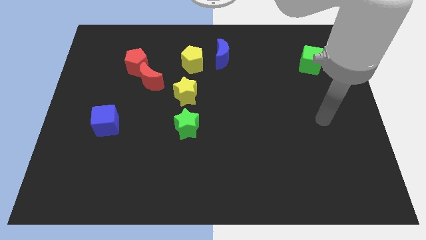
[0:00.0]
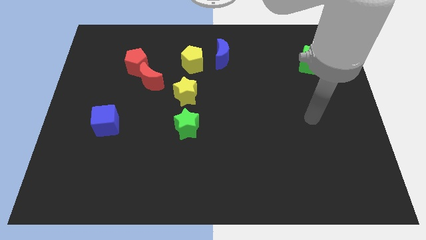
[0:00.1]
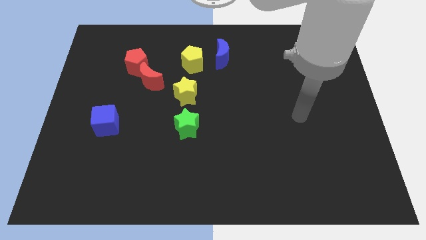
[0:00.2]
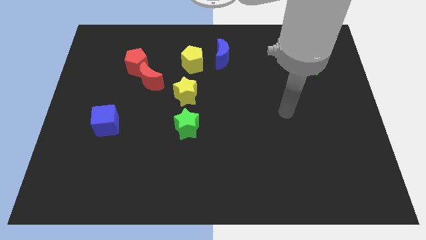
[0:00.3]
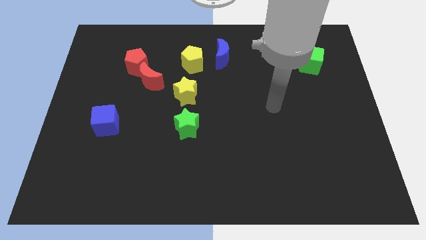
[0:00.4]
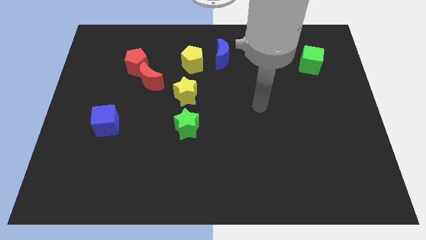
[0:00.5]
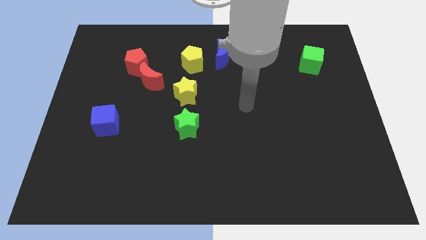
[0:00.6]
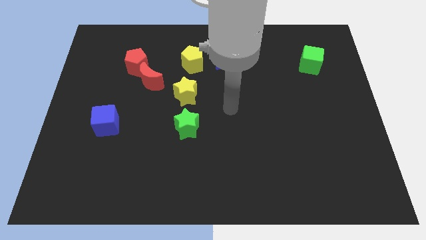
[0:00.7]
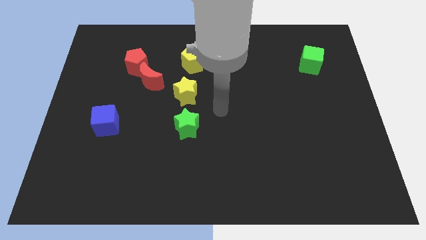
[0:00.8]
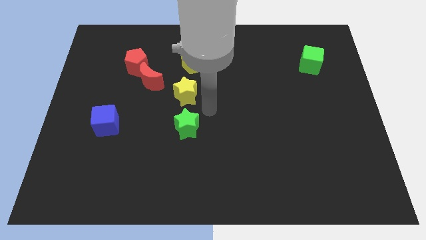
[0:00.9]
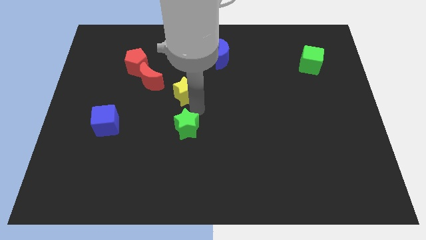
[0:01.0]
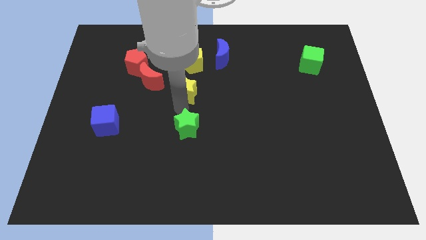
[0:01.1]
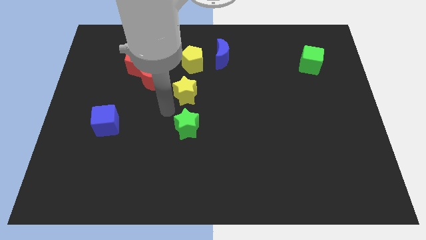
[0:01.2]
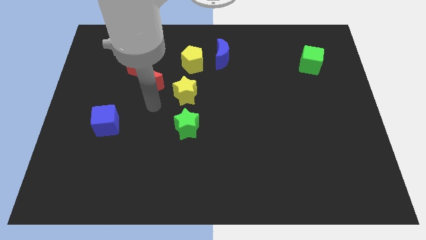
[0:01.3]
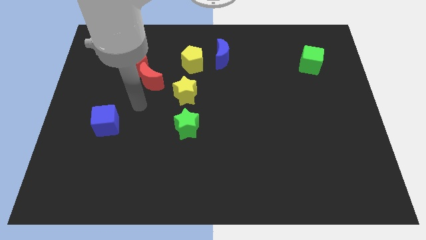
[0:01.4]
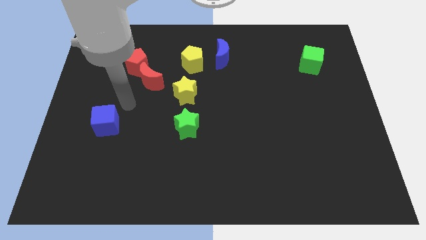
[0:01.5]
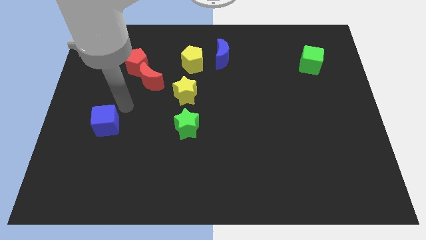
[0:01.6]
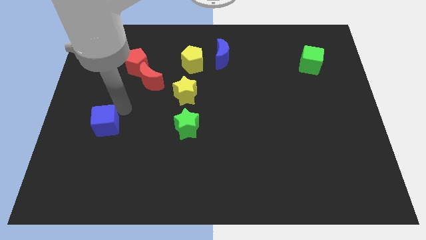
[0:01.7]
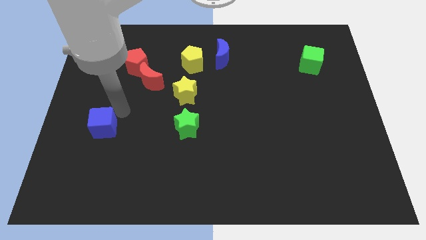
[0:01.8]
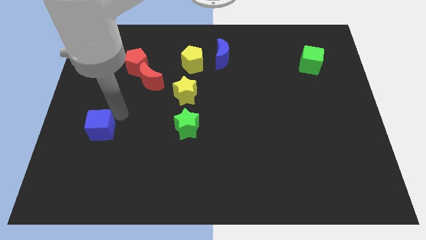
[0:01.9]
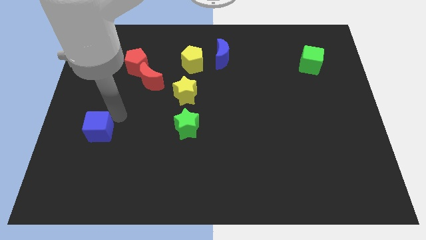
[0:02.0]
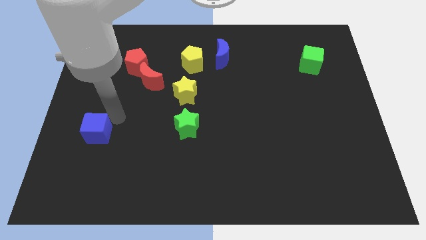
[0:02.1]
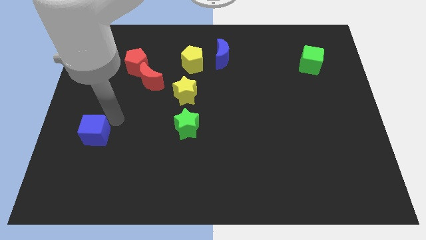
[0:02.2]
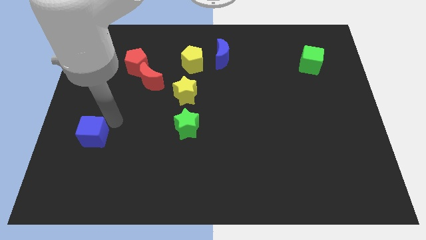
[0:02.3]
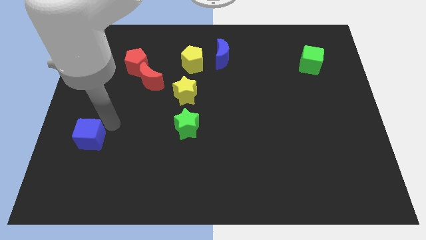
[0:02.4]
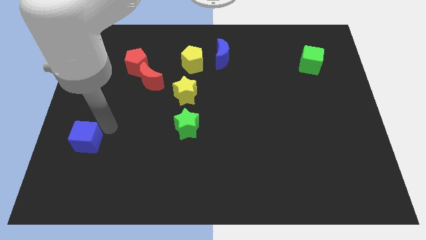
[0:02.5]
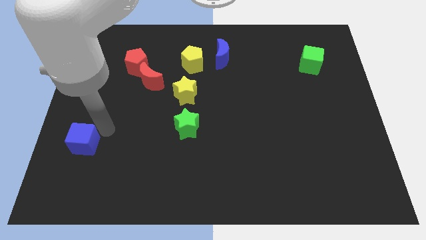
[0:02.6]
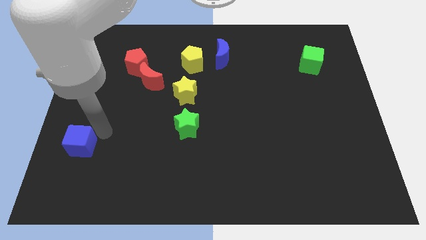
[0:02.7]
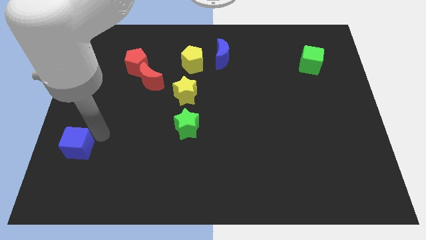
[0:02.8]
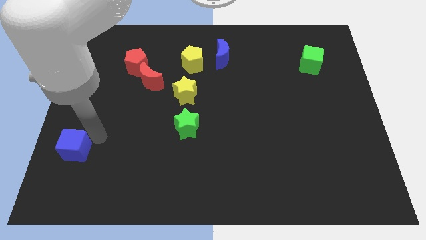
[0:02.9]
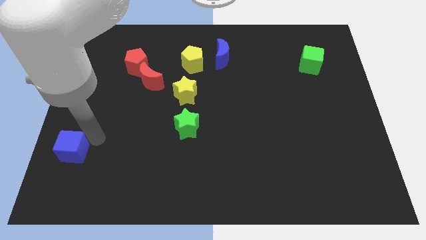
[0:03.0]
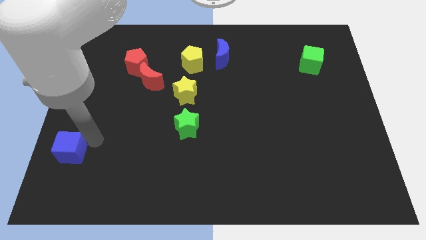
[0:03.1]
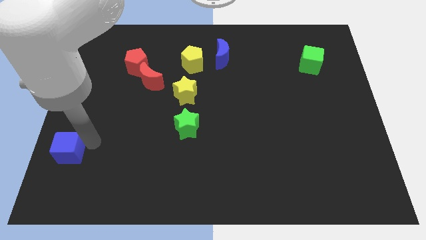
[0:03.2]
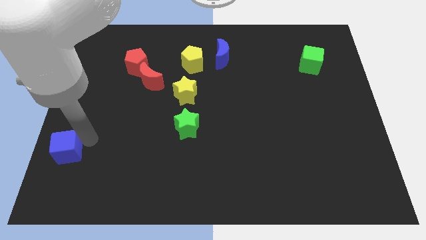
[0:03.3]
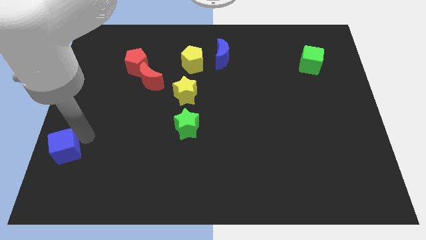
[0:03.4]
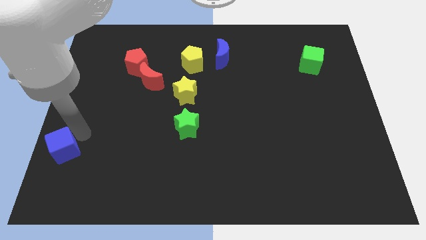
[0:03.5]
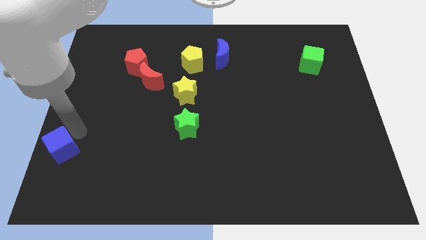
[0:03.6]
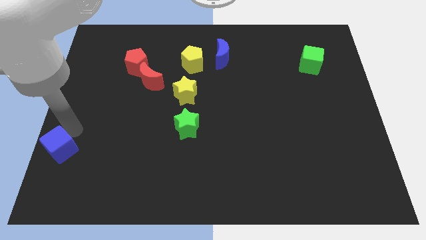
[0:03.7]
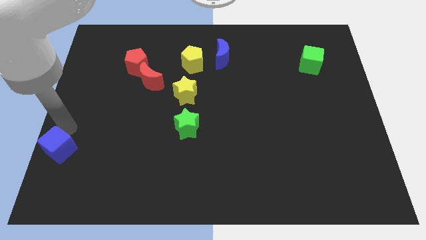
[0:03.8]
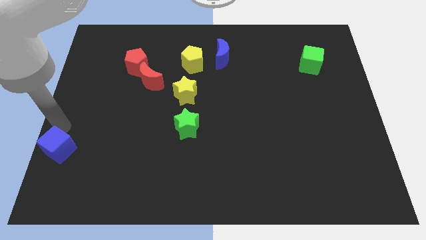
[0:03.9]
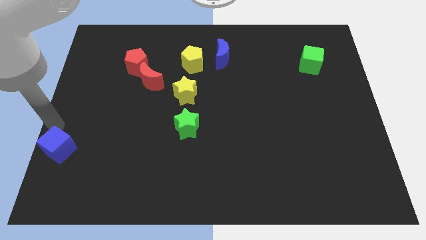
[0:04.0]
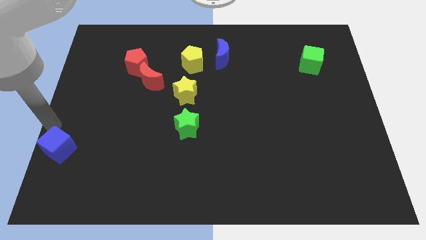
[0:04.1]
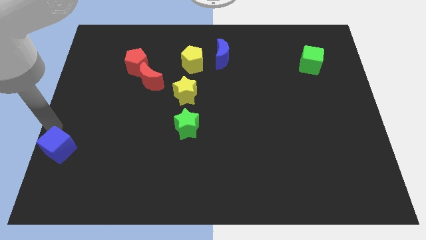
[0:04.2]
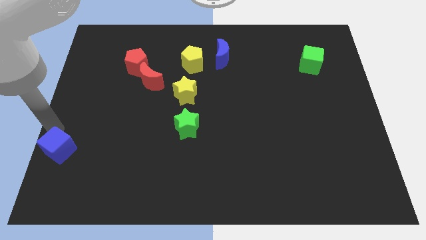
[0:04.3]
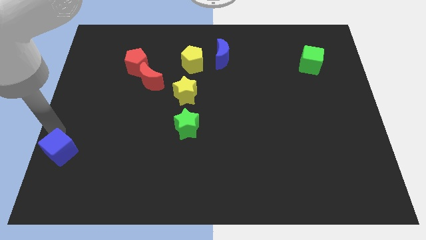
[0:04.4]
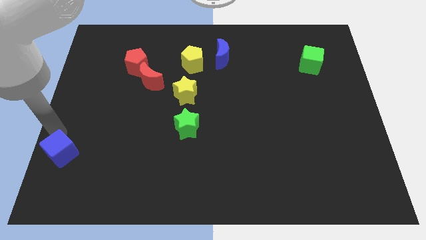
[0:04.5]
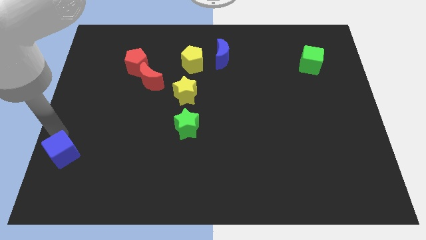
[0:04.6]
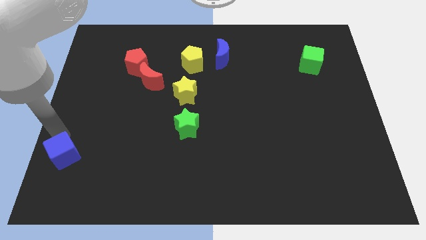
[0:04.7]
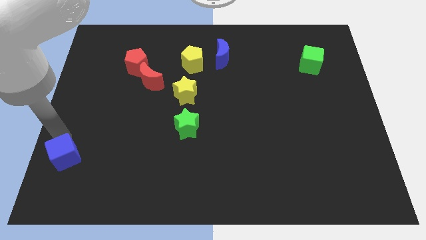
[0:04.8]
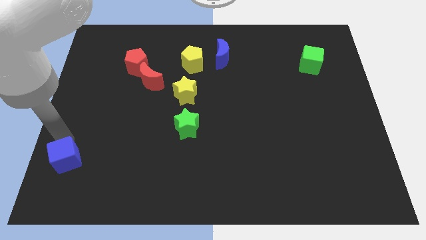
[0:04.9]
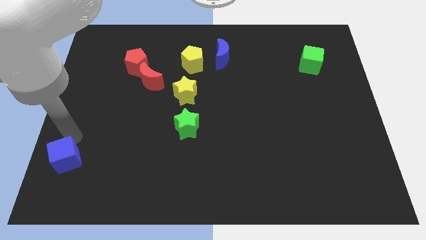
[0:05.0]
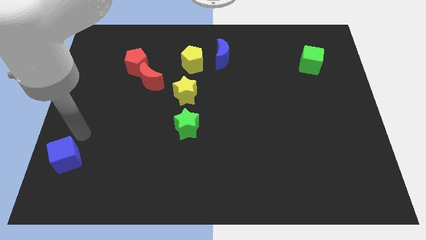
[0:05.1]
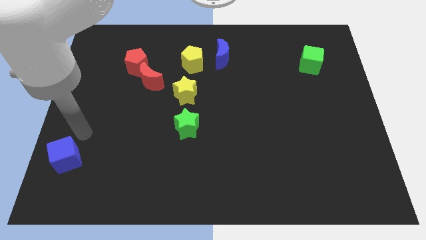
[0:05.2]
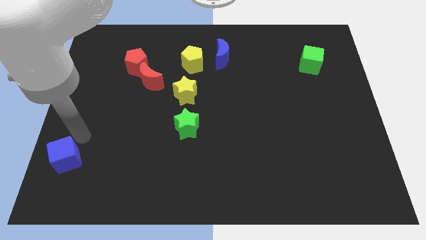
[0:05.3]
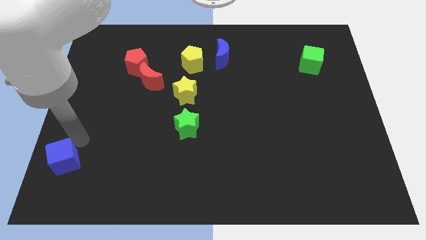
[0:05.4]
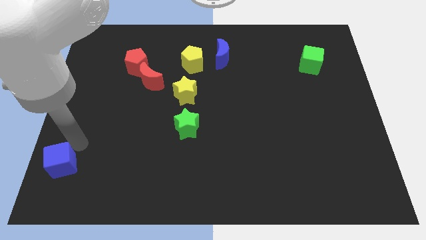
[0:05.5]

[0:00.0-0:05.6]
move the blue cube to the bottom left corner

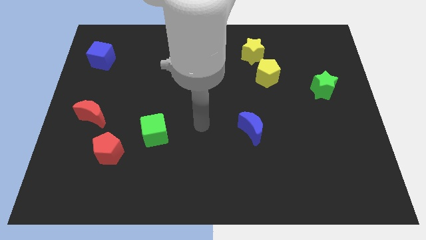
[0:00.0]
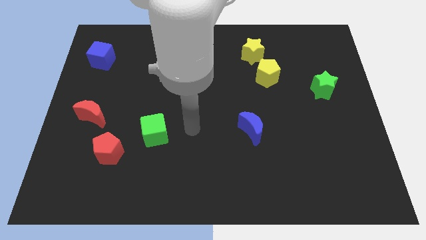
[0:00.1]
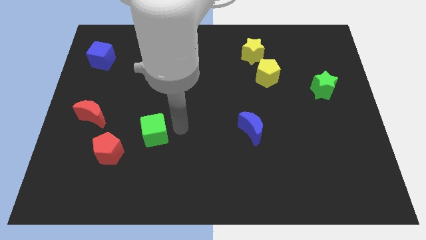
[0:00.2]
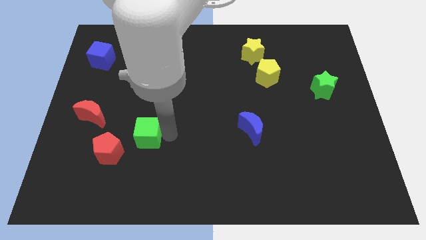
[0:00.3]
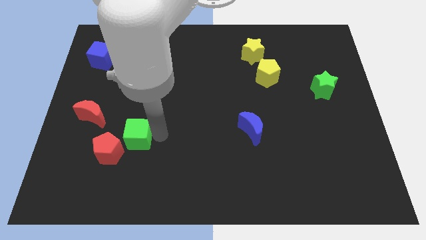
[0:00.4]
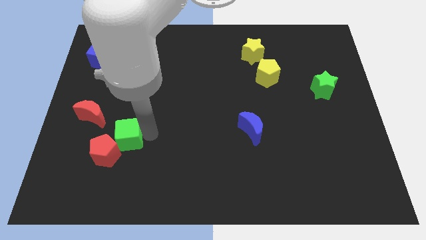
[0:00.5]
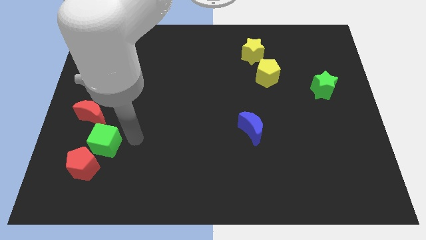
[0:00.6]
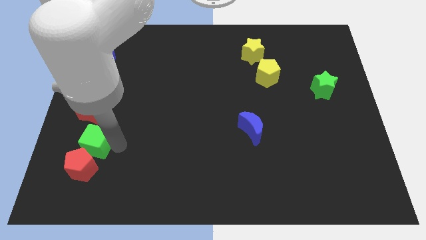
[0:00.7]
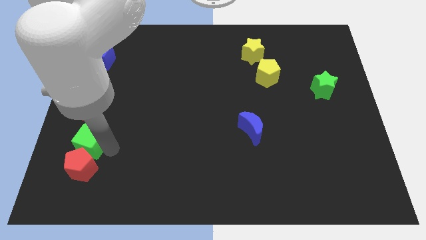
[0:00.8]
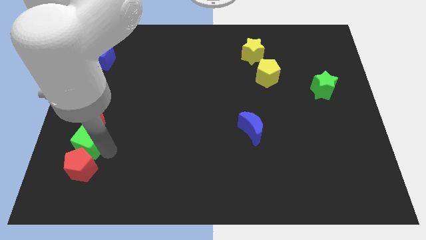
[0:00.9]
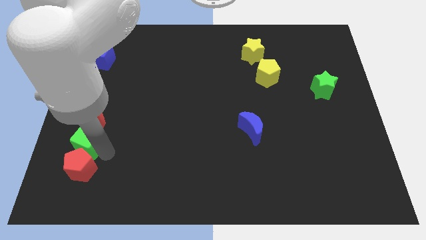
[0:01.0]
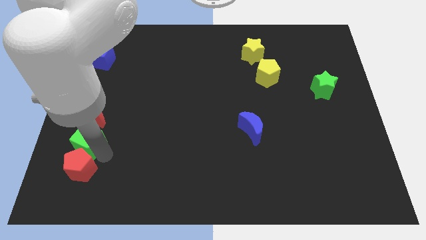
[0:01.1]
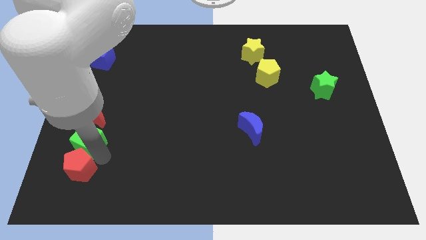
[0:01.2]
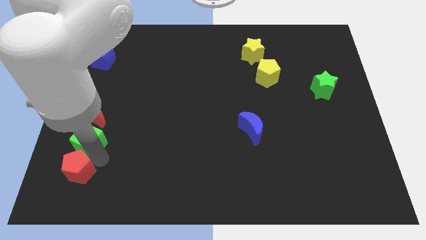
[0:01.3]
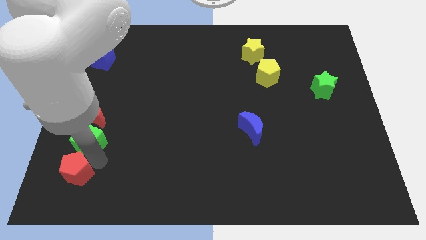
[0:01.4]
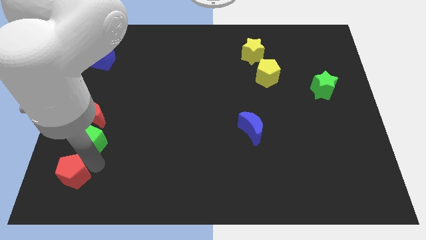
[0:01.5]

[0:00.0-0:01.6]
slide the red pentagon to the bottom left
